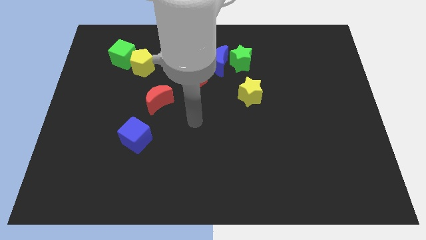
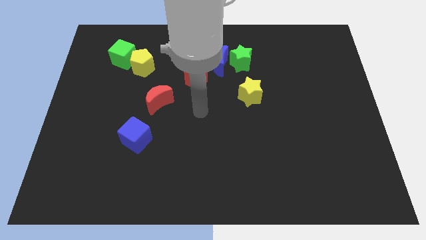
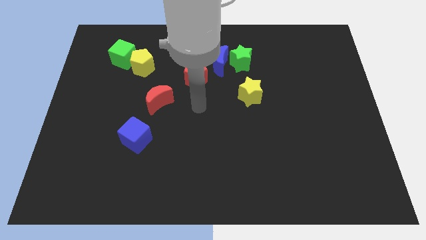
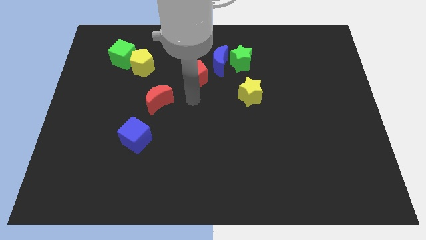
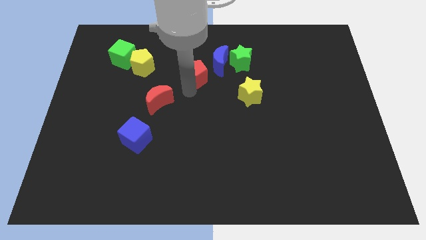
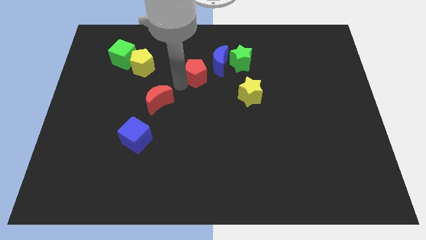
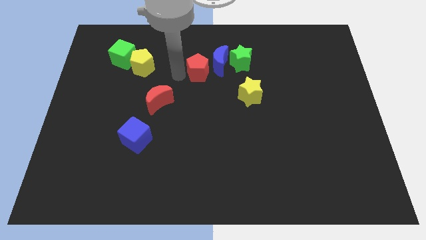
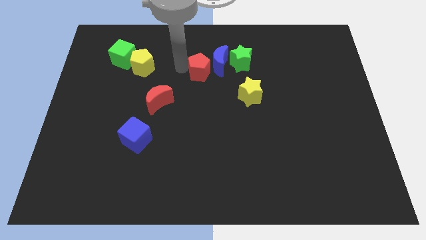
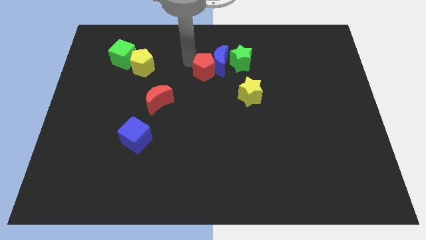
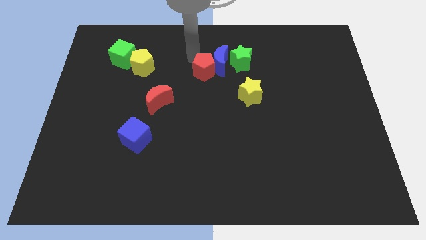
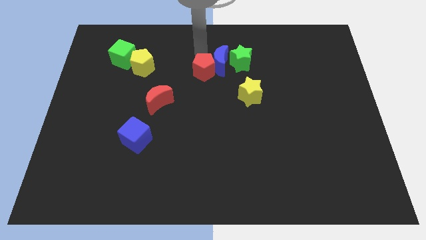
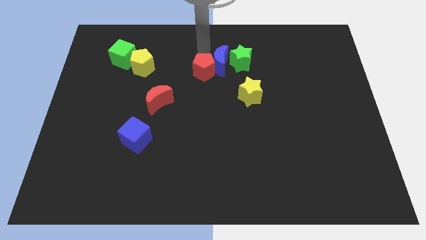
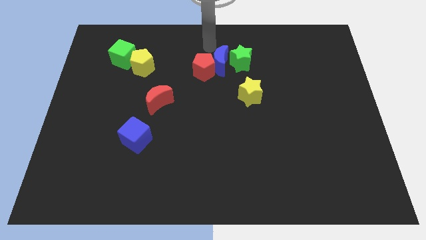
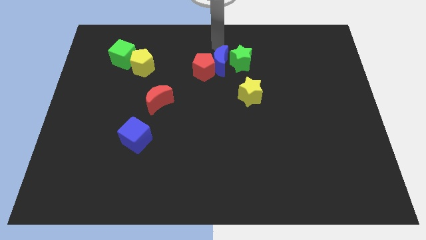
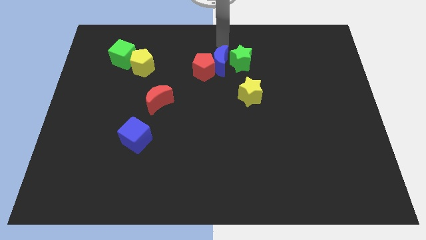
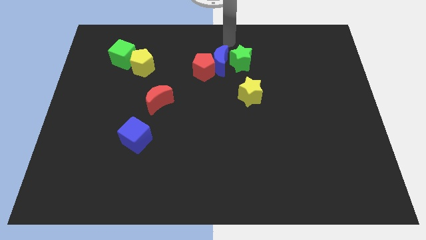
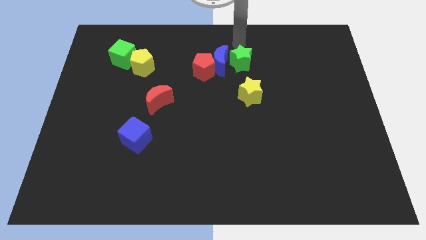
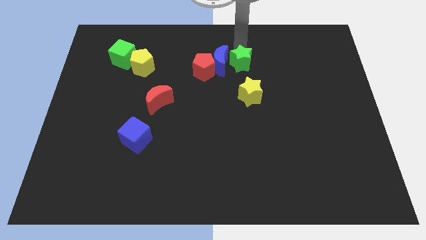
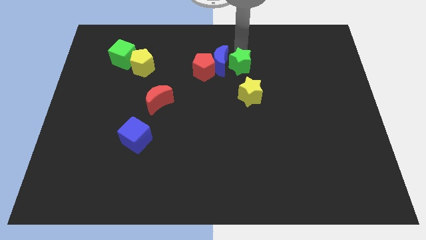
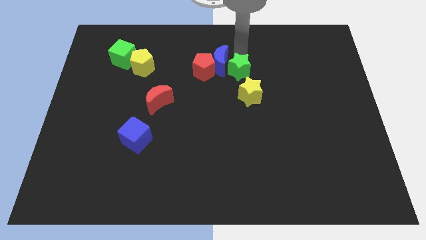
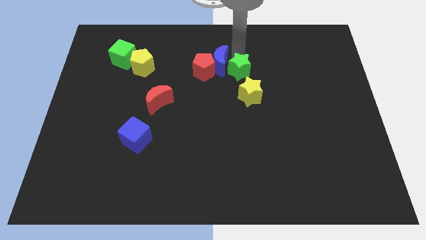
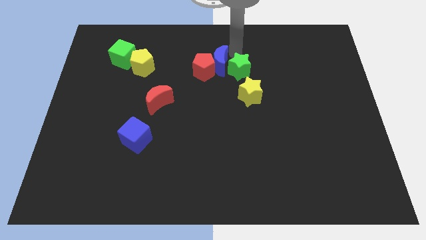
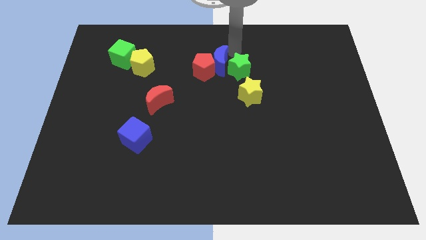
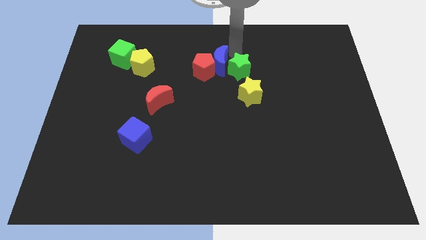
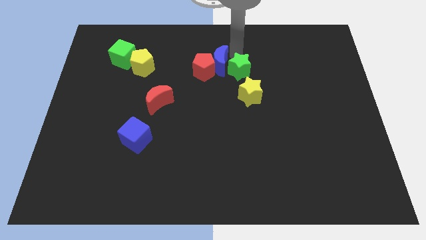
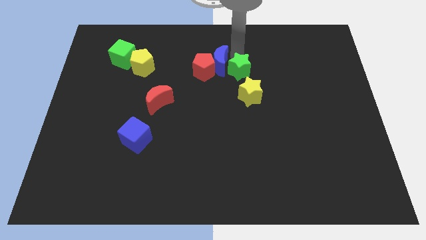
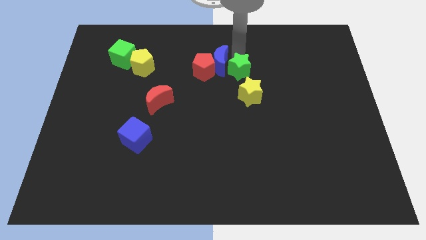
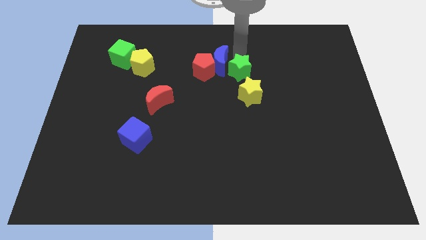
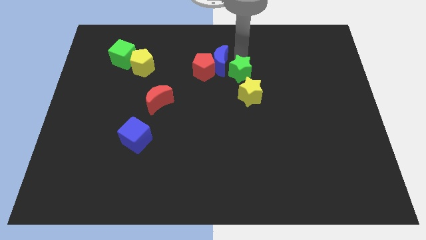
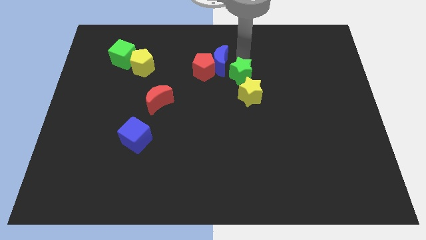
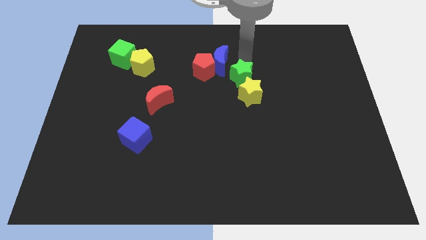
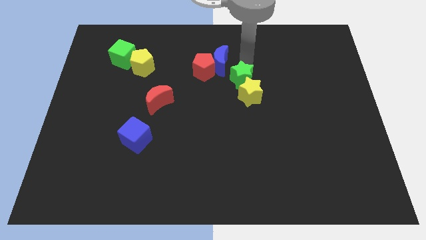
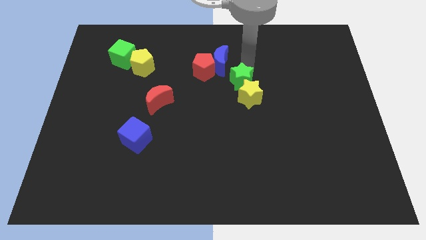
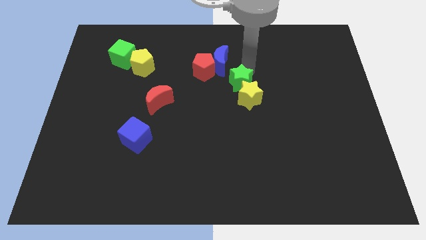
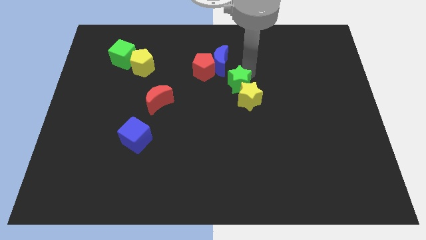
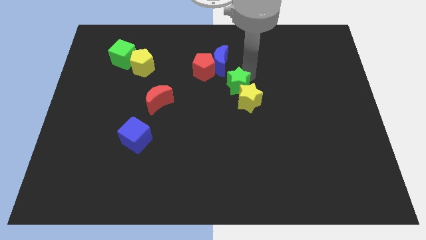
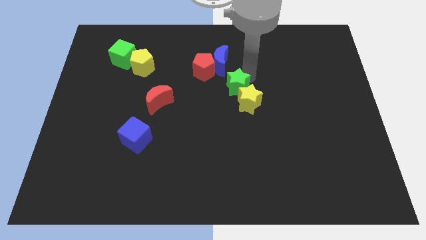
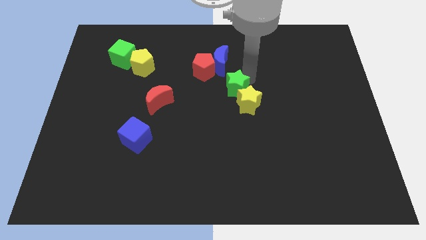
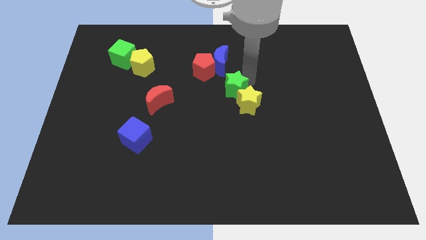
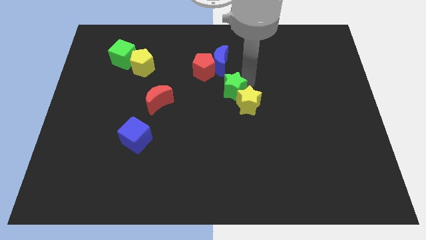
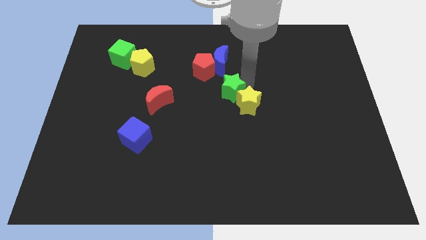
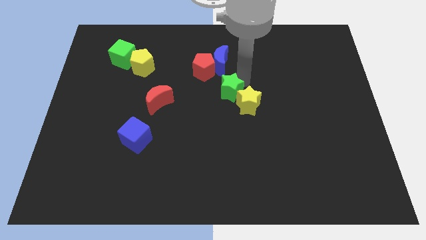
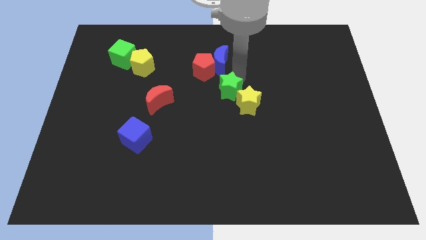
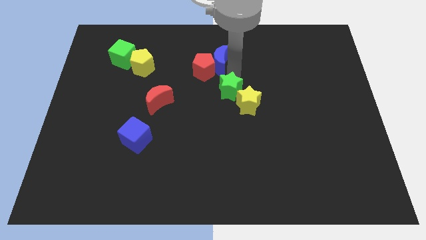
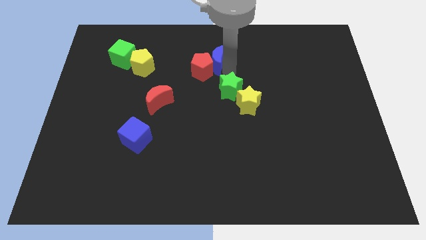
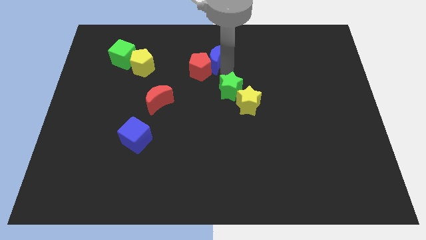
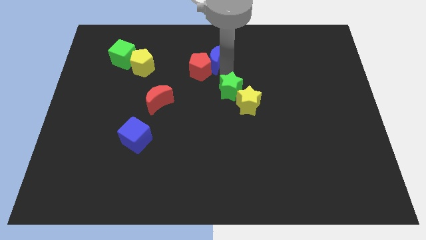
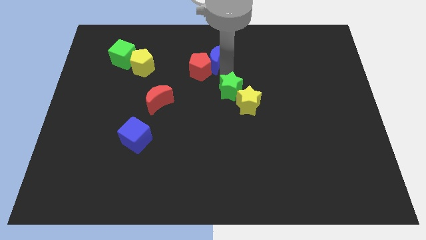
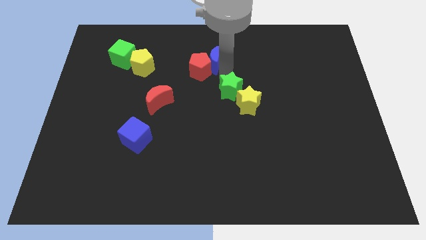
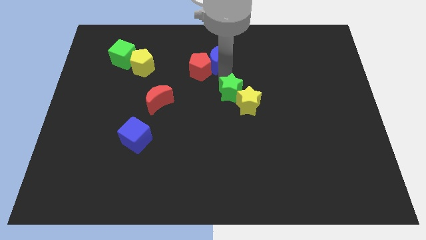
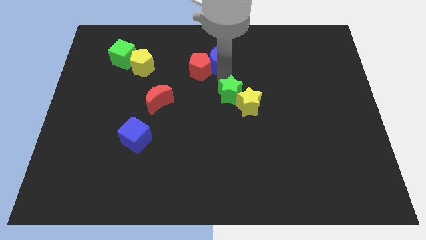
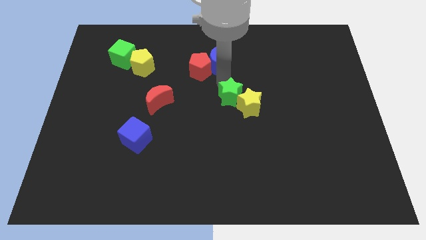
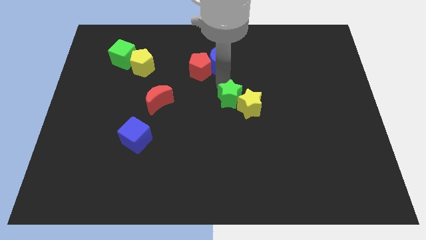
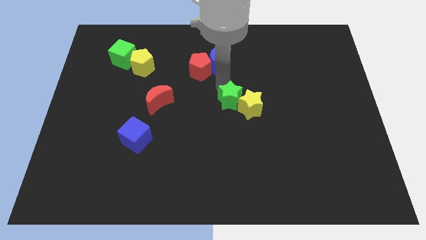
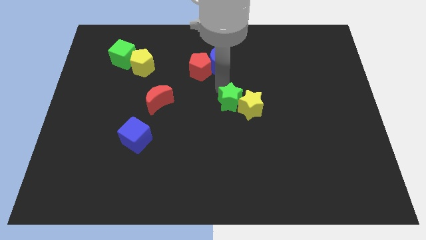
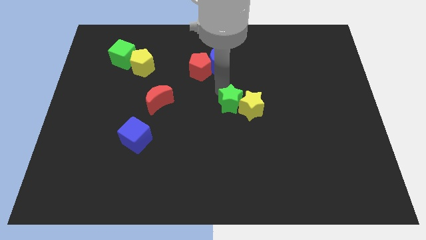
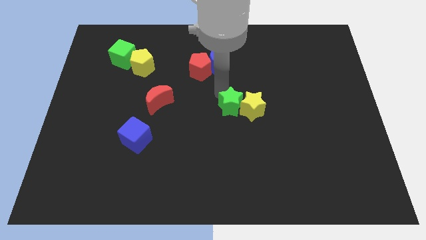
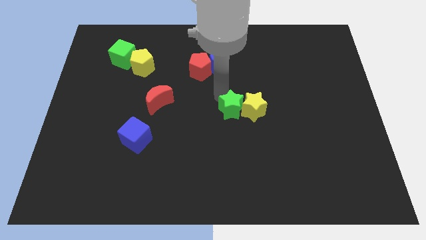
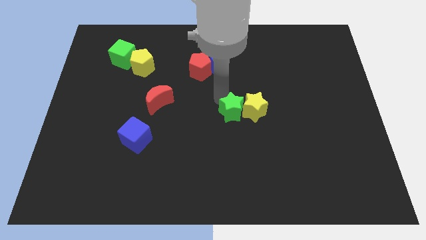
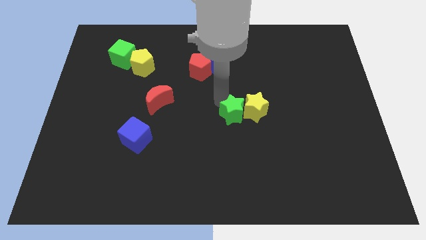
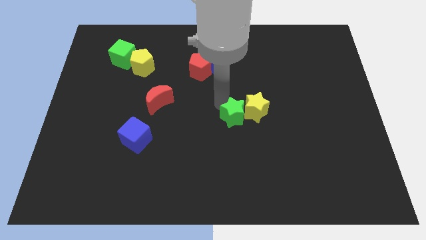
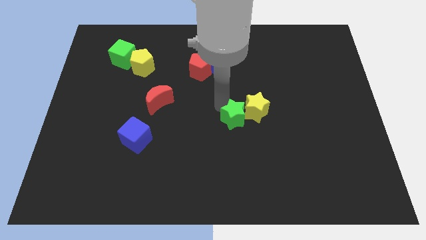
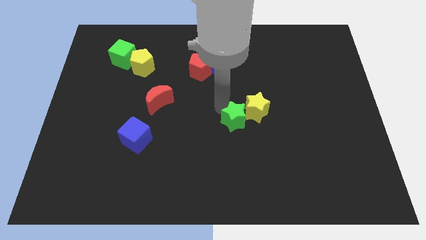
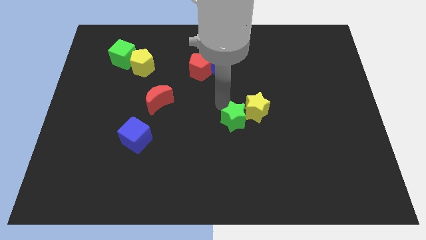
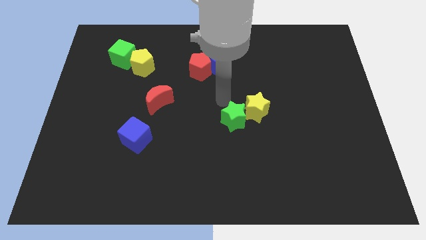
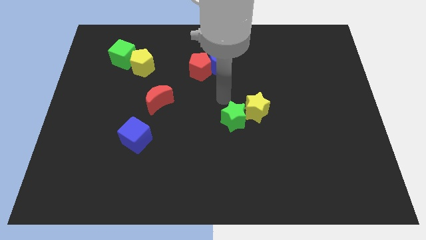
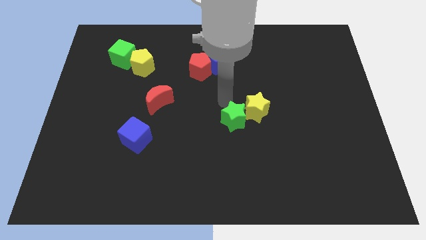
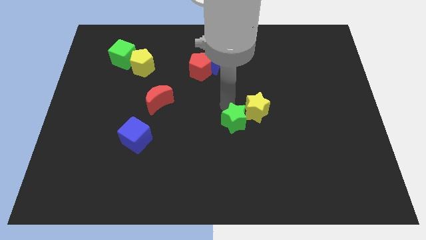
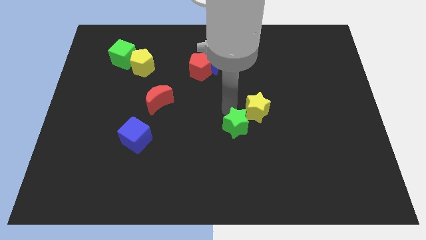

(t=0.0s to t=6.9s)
push the green star down

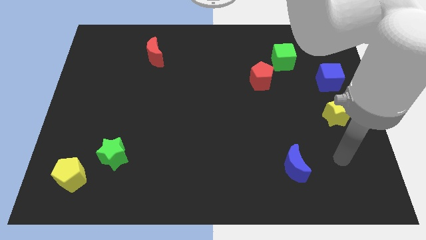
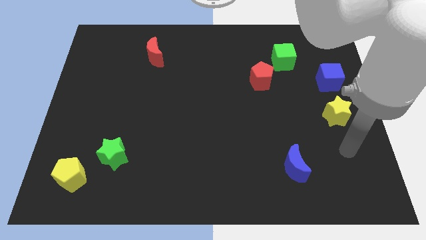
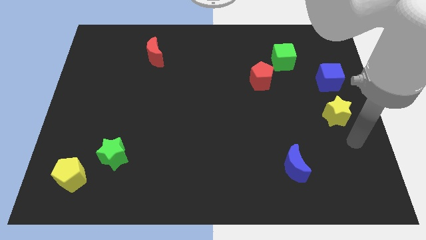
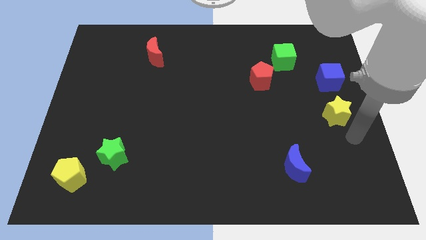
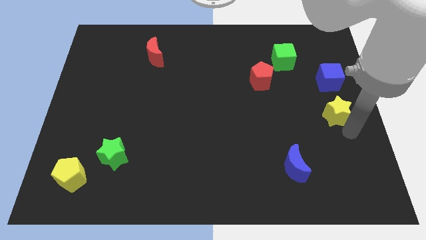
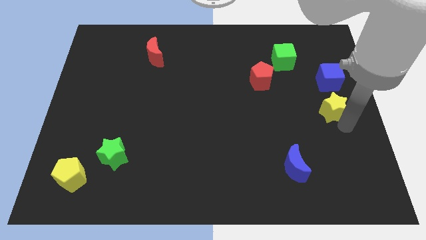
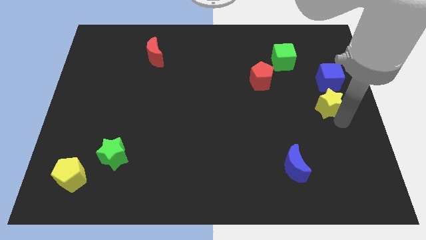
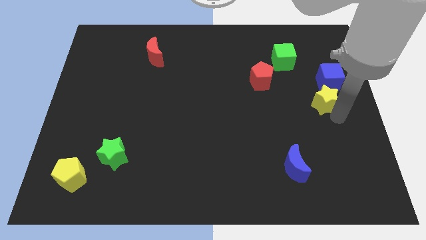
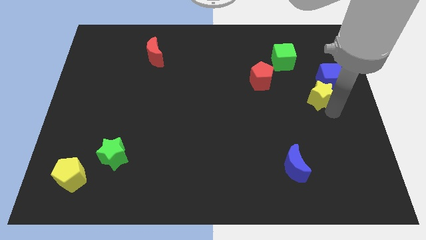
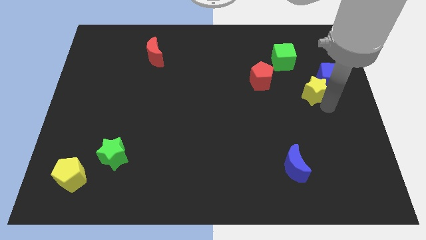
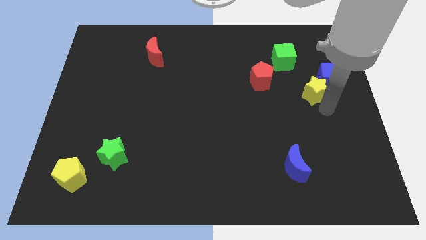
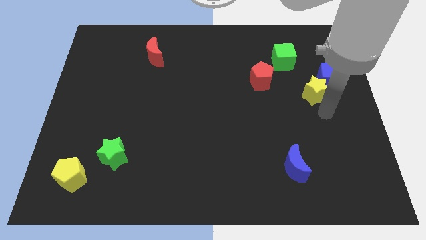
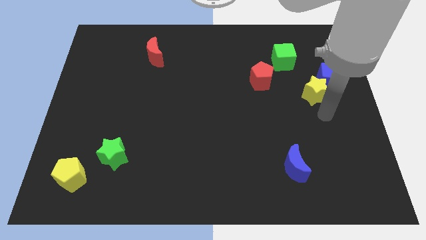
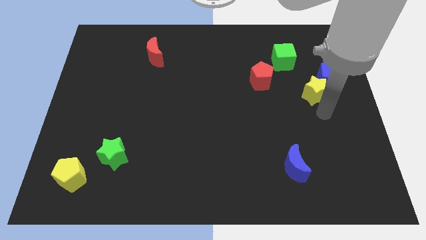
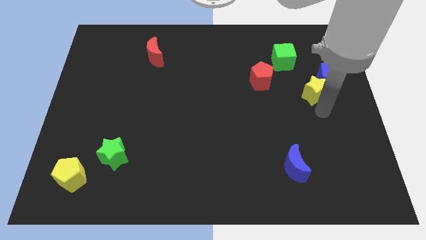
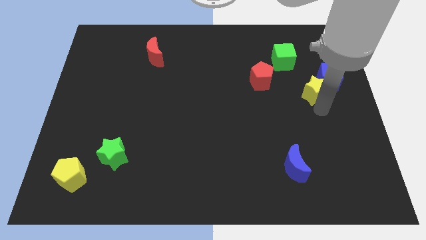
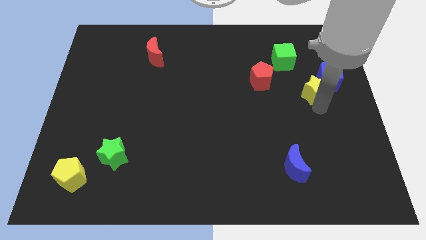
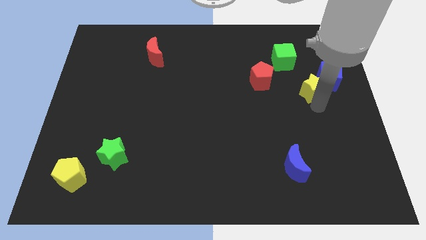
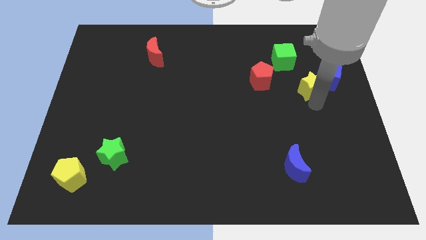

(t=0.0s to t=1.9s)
slide the yellow star a little bit upwards
